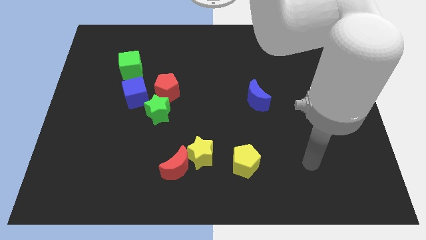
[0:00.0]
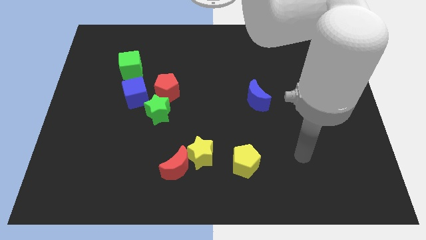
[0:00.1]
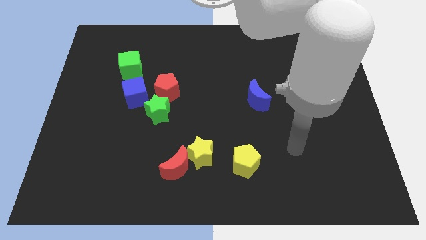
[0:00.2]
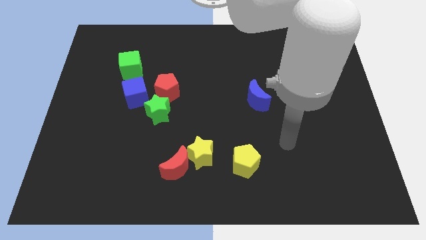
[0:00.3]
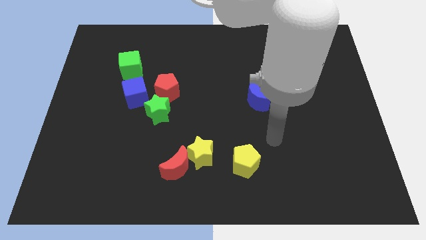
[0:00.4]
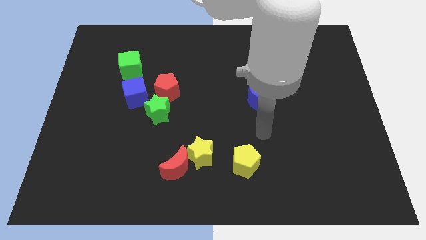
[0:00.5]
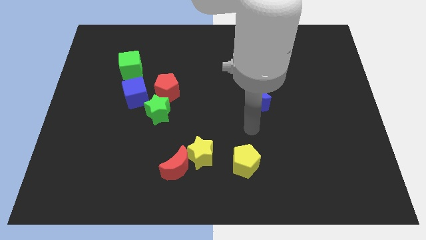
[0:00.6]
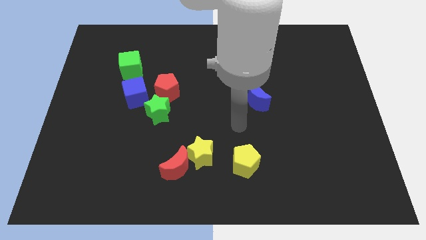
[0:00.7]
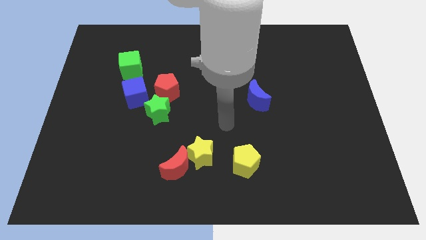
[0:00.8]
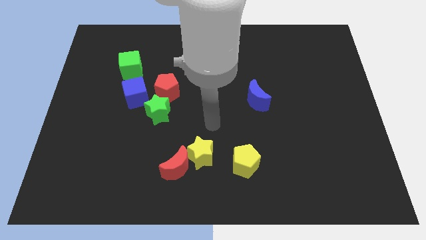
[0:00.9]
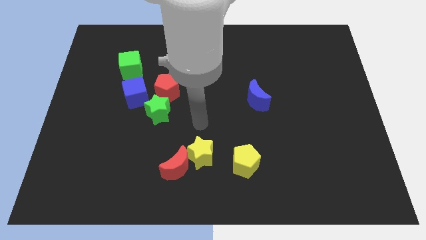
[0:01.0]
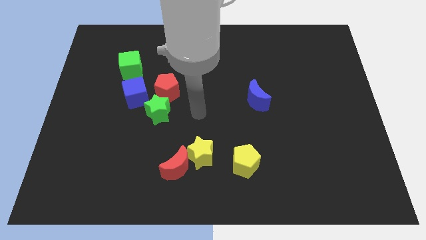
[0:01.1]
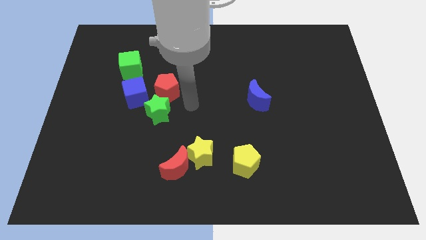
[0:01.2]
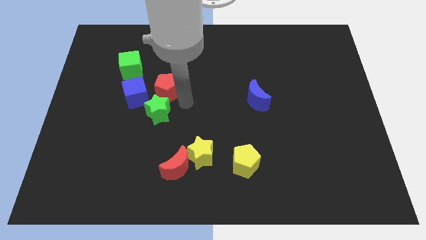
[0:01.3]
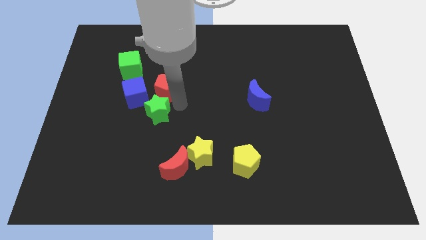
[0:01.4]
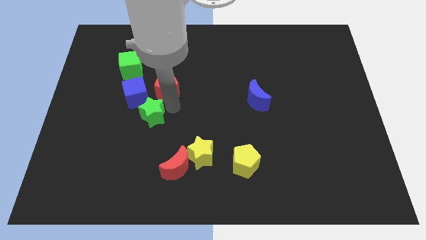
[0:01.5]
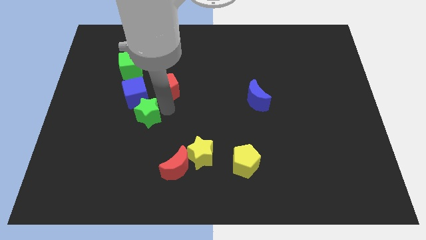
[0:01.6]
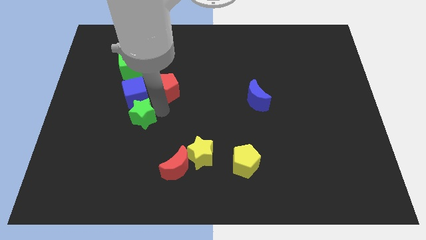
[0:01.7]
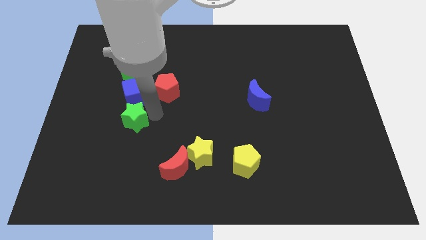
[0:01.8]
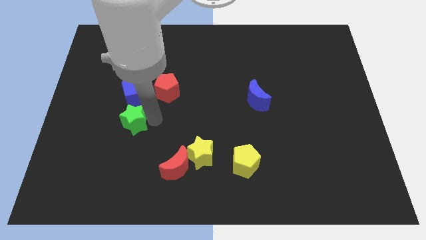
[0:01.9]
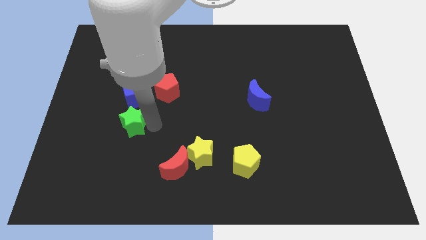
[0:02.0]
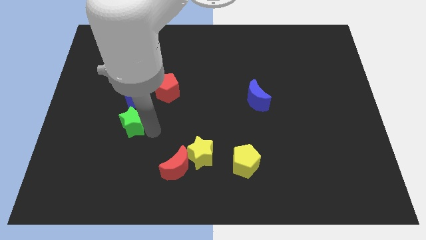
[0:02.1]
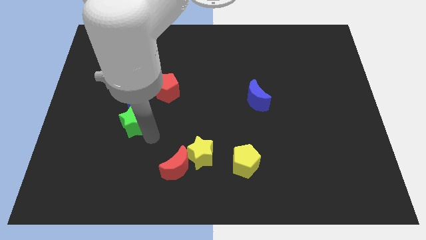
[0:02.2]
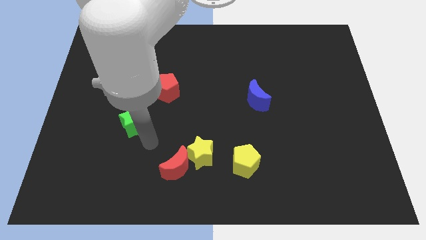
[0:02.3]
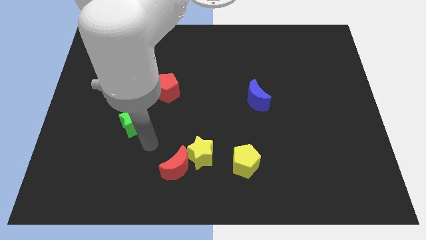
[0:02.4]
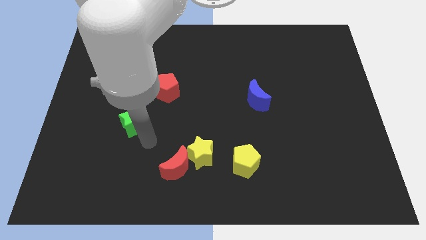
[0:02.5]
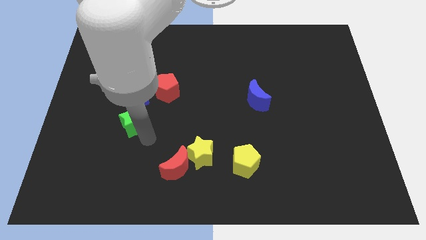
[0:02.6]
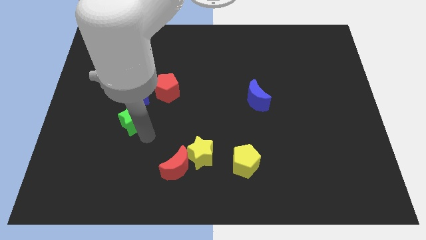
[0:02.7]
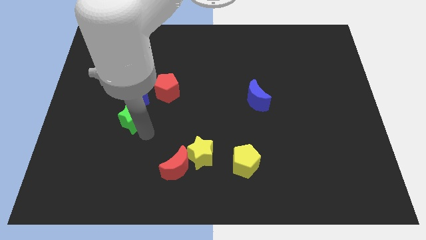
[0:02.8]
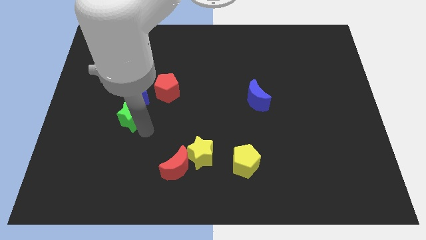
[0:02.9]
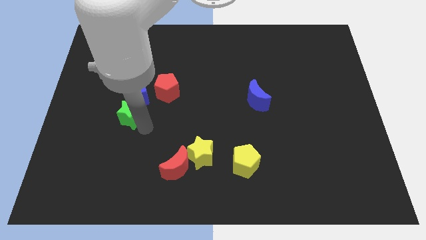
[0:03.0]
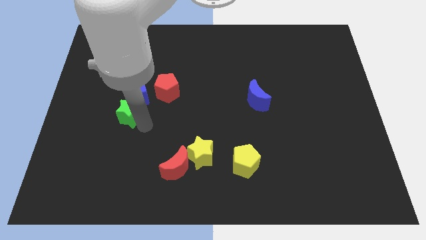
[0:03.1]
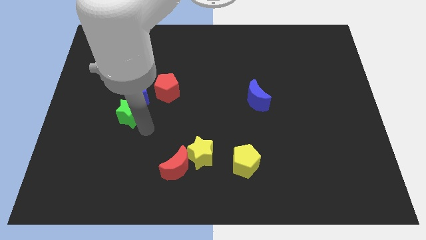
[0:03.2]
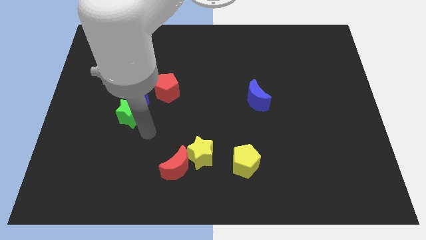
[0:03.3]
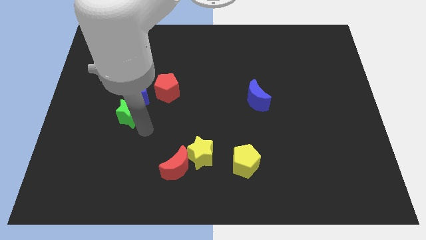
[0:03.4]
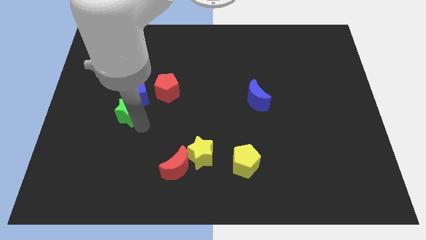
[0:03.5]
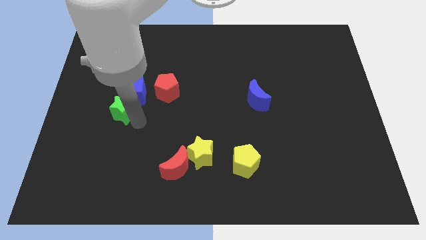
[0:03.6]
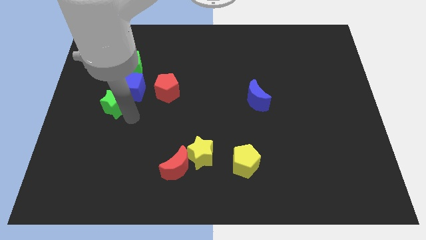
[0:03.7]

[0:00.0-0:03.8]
slightly push the green star diagonally upwards and to the left

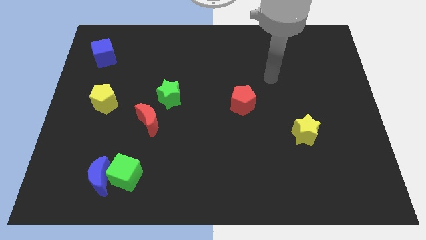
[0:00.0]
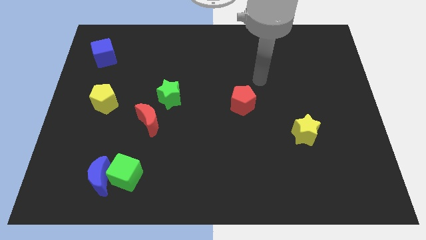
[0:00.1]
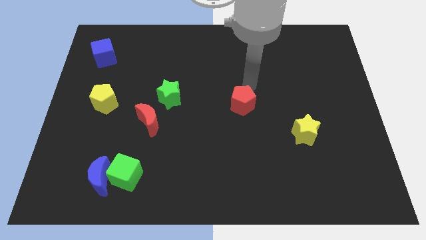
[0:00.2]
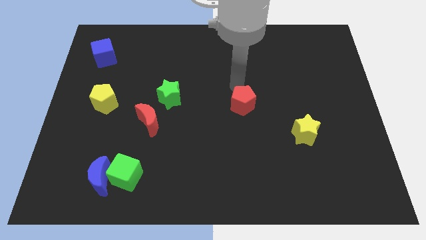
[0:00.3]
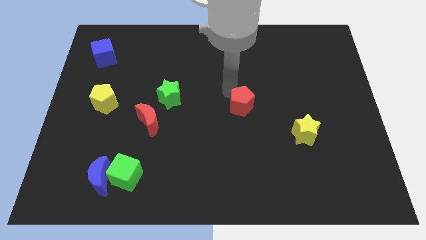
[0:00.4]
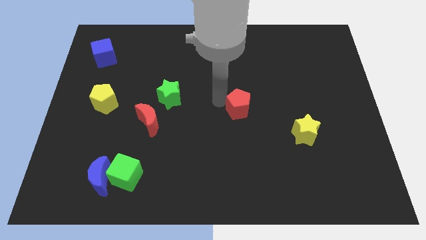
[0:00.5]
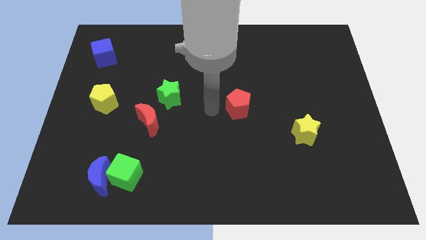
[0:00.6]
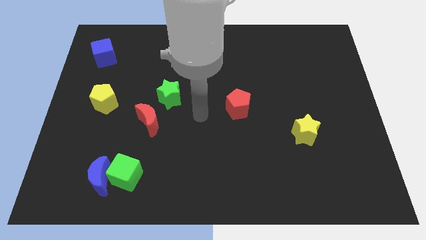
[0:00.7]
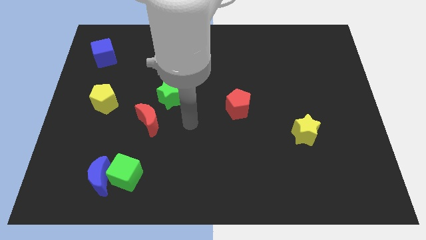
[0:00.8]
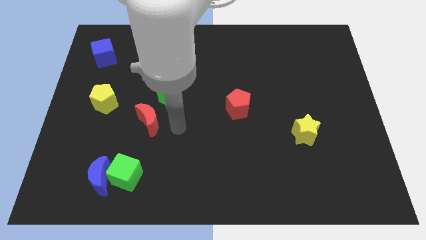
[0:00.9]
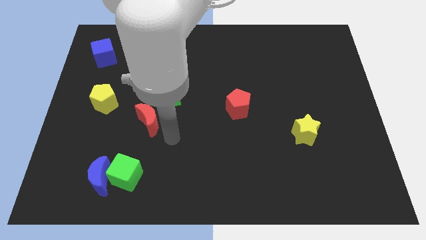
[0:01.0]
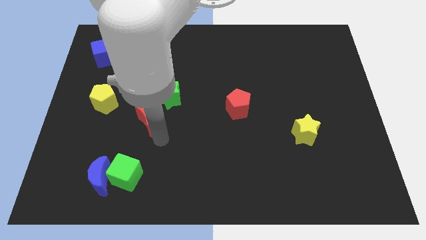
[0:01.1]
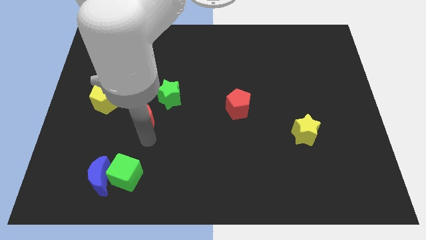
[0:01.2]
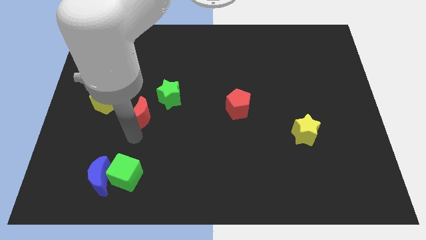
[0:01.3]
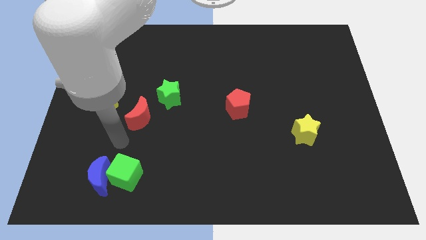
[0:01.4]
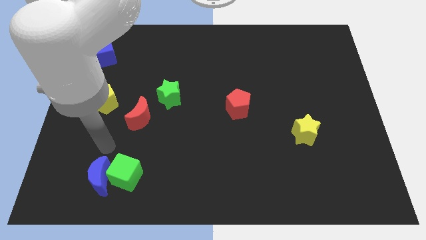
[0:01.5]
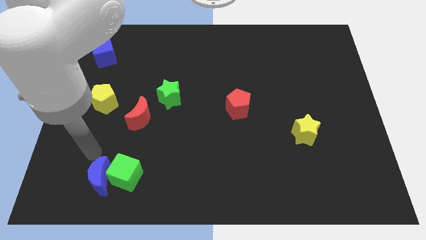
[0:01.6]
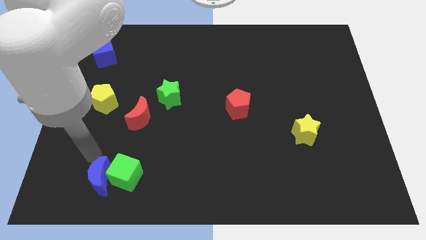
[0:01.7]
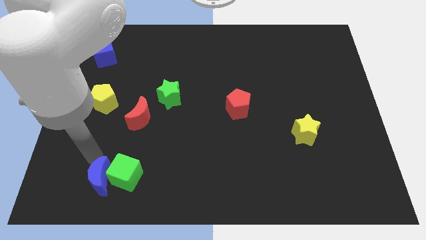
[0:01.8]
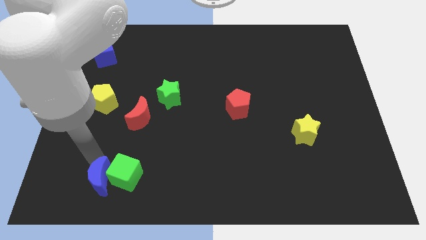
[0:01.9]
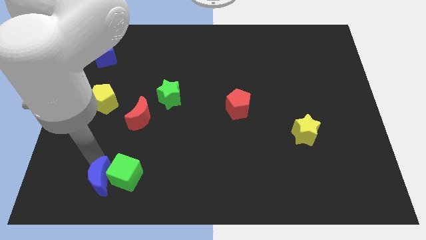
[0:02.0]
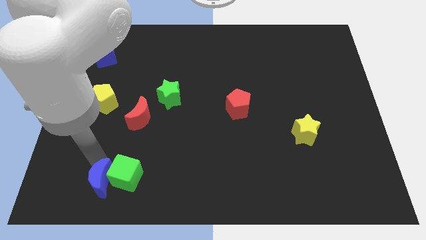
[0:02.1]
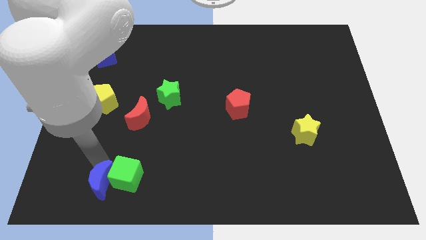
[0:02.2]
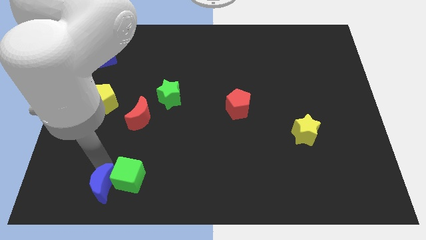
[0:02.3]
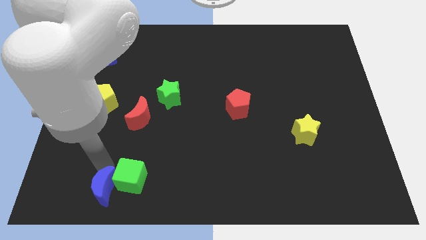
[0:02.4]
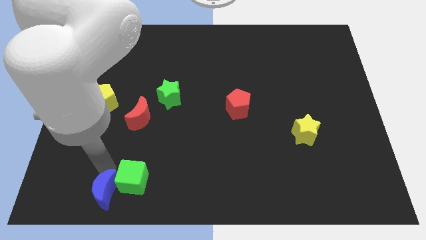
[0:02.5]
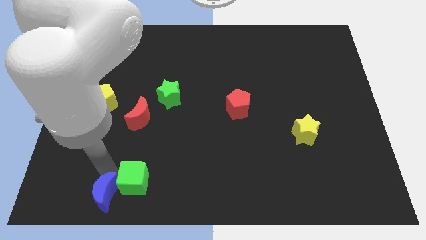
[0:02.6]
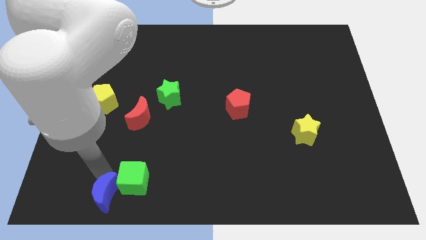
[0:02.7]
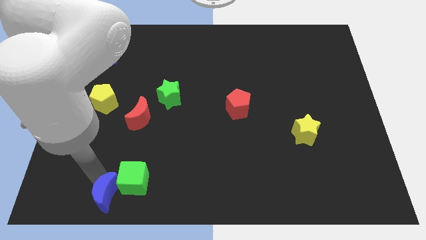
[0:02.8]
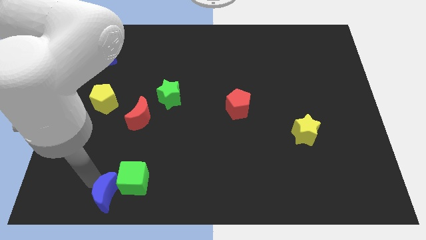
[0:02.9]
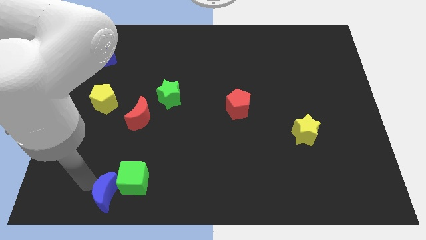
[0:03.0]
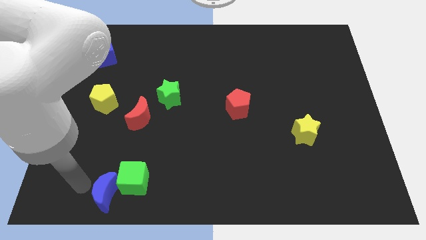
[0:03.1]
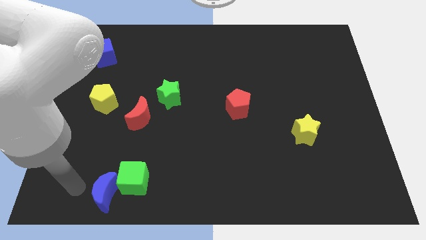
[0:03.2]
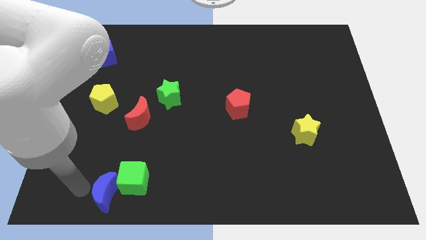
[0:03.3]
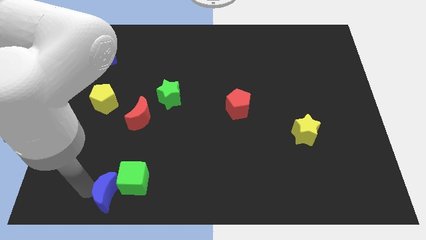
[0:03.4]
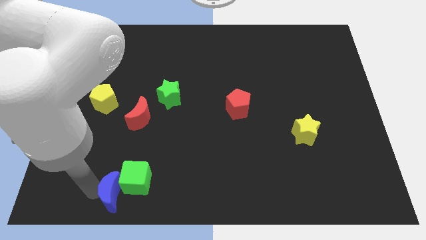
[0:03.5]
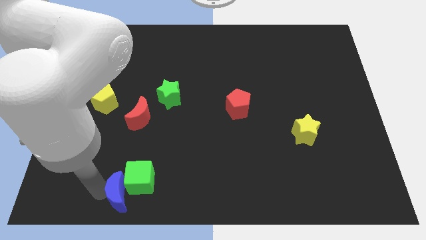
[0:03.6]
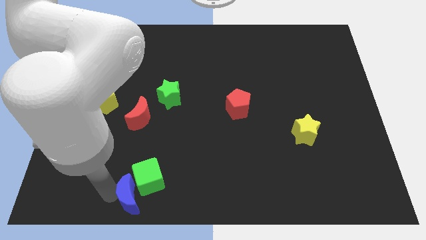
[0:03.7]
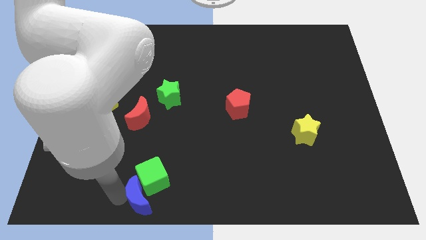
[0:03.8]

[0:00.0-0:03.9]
push the blue moon slightly right
